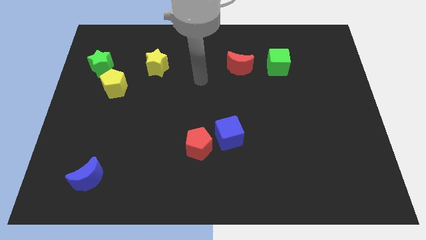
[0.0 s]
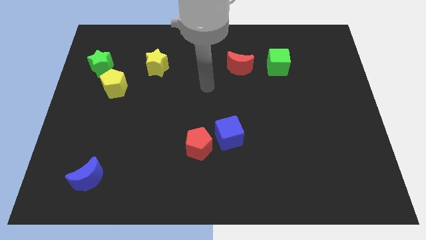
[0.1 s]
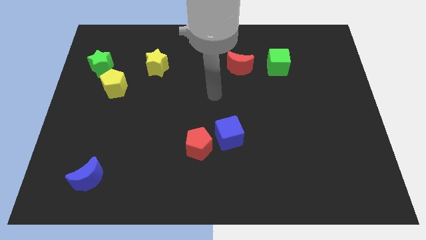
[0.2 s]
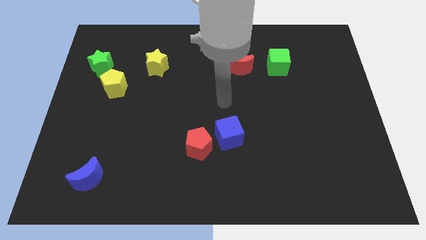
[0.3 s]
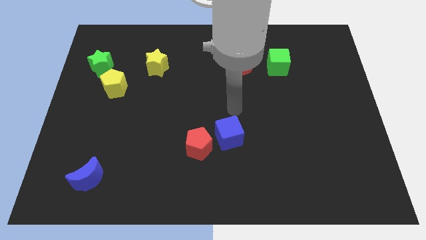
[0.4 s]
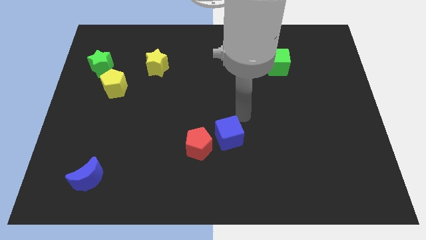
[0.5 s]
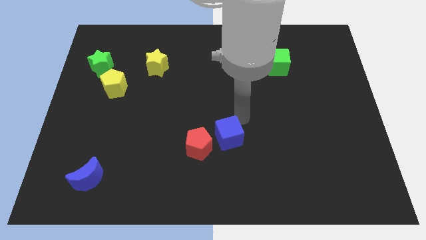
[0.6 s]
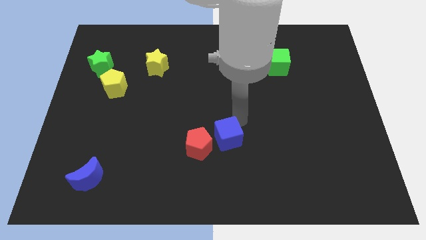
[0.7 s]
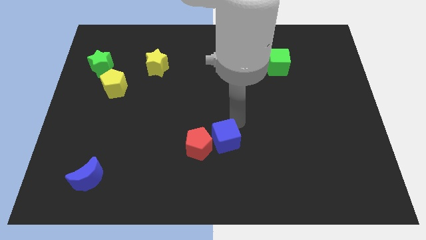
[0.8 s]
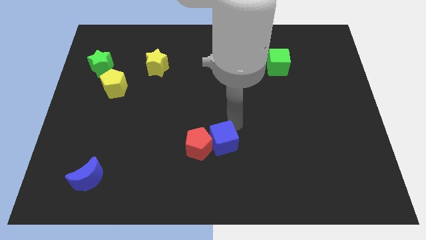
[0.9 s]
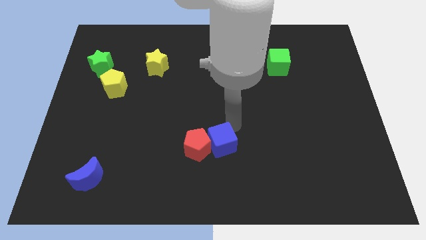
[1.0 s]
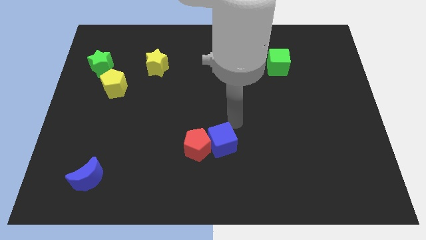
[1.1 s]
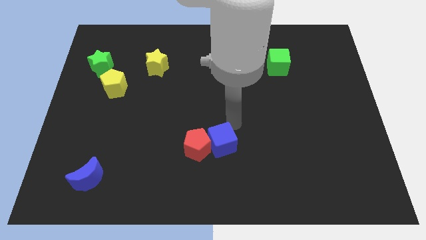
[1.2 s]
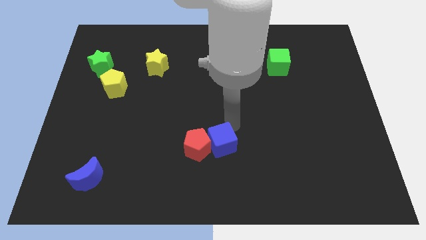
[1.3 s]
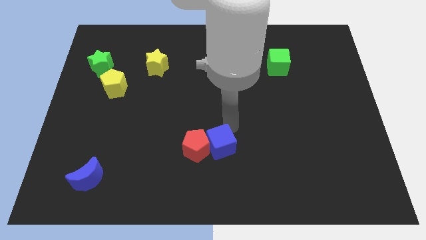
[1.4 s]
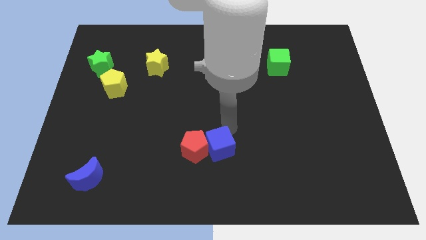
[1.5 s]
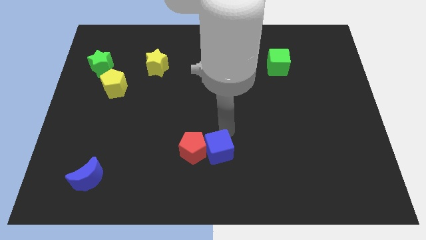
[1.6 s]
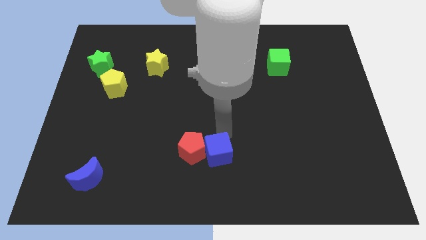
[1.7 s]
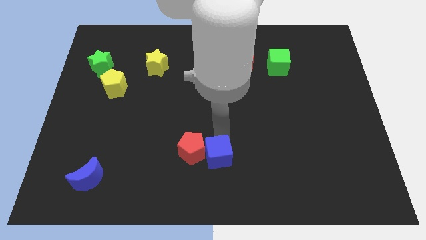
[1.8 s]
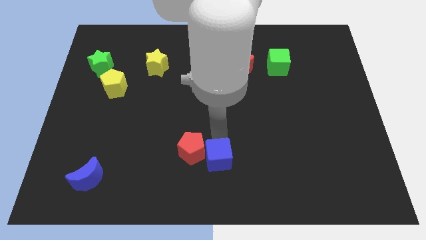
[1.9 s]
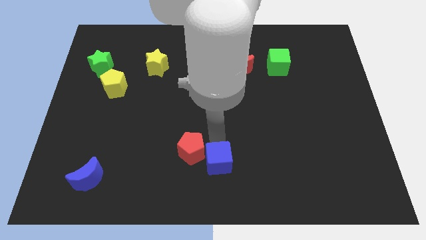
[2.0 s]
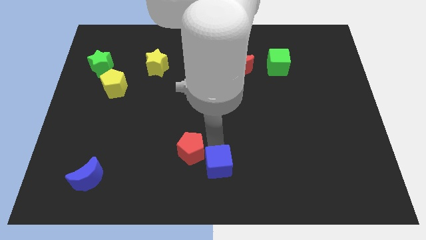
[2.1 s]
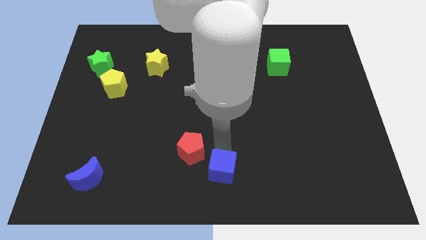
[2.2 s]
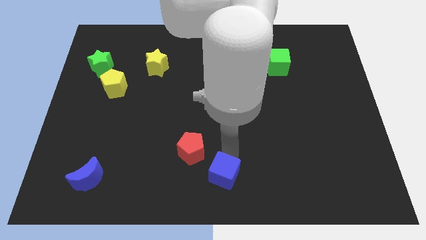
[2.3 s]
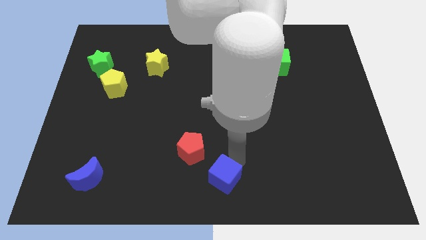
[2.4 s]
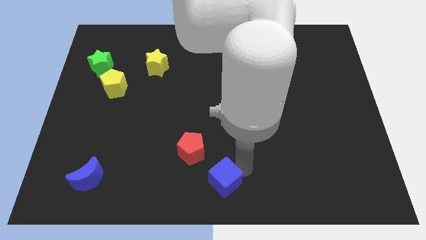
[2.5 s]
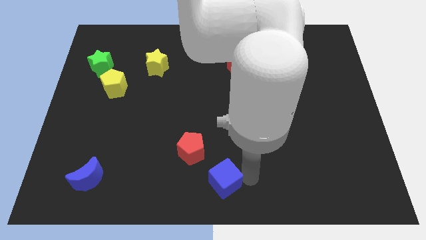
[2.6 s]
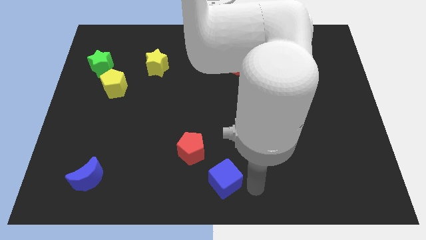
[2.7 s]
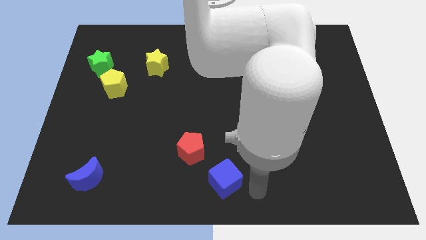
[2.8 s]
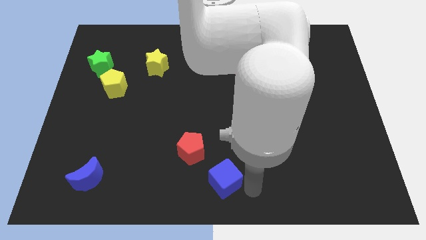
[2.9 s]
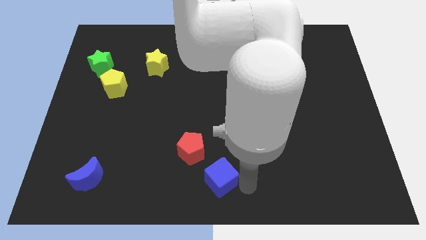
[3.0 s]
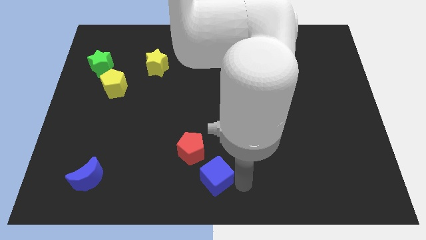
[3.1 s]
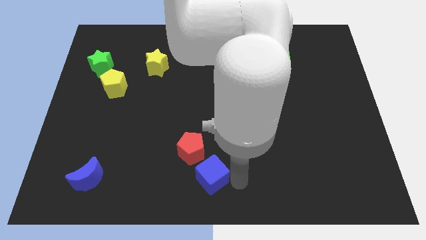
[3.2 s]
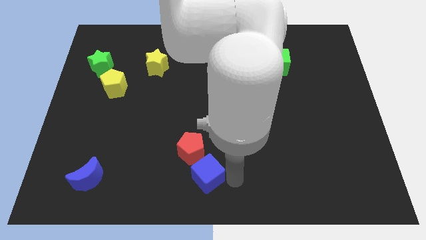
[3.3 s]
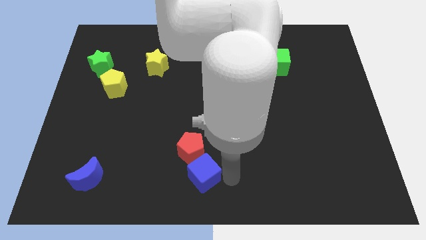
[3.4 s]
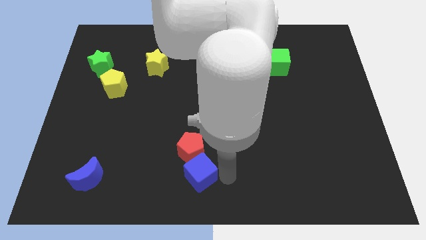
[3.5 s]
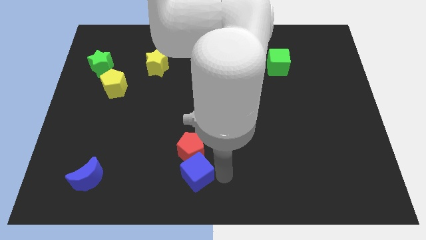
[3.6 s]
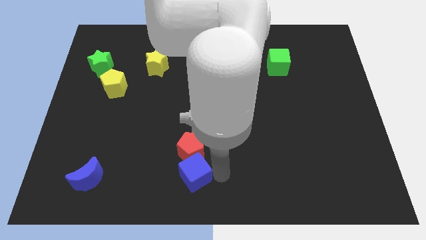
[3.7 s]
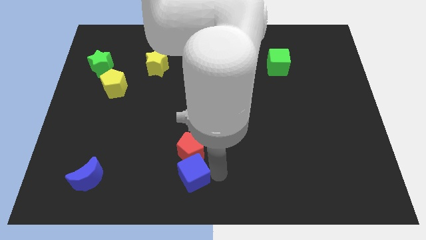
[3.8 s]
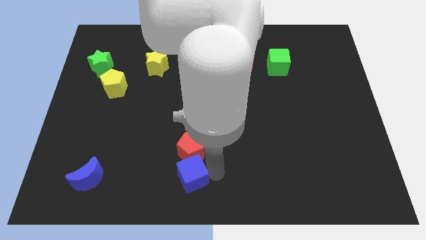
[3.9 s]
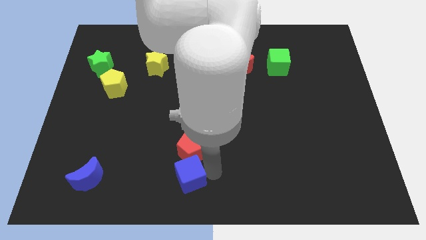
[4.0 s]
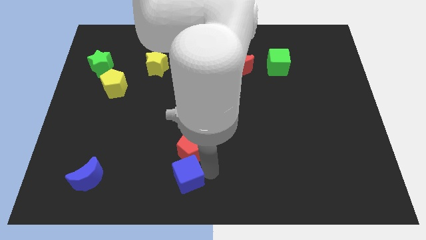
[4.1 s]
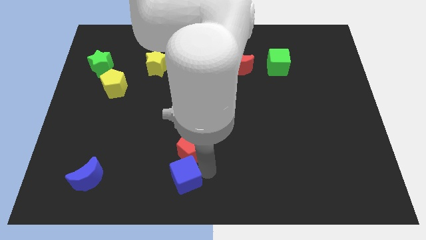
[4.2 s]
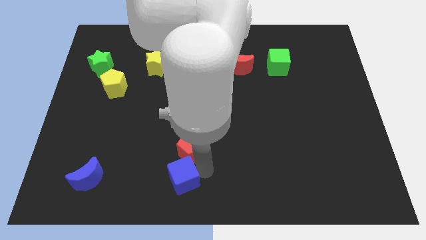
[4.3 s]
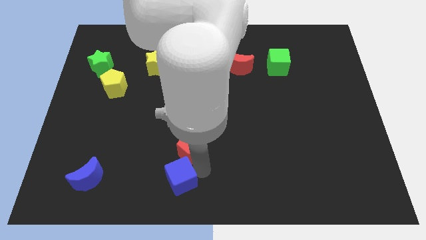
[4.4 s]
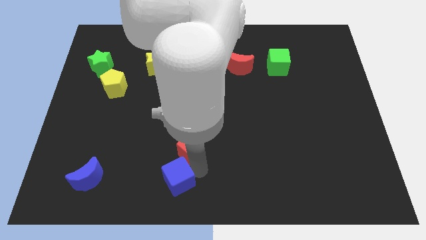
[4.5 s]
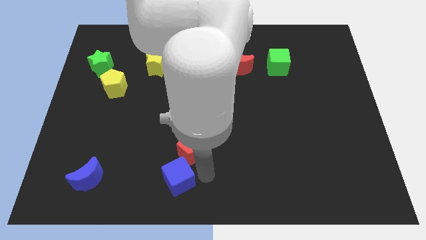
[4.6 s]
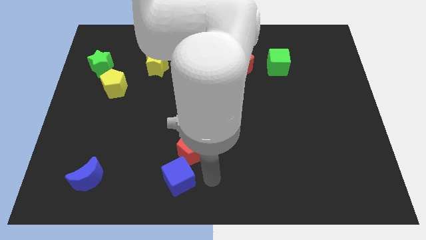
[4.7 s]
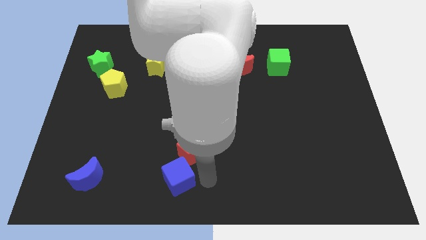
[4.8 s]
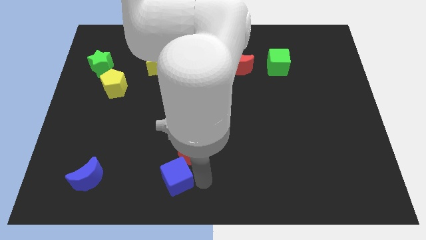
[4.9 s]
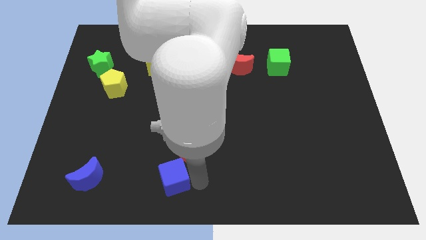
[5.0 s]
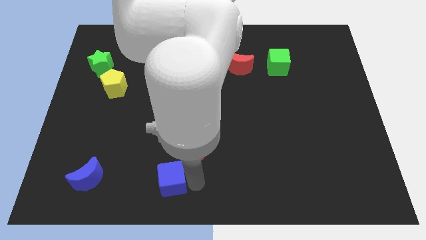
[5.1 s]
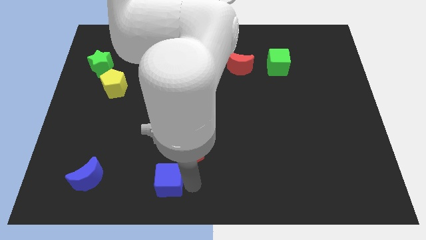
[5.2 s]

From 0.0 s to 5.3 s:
push the blue cube just right of the blue moon

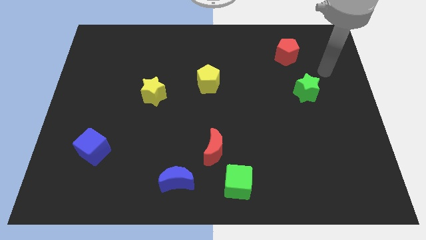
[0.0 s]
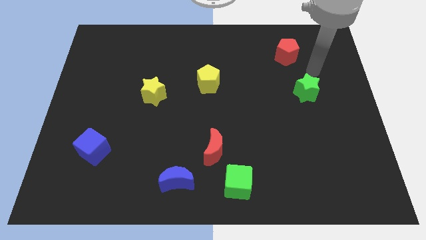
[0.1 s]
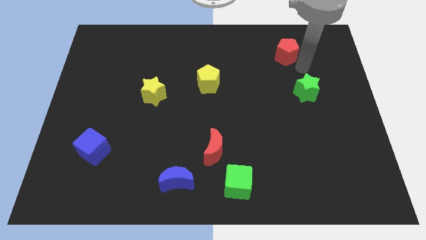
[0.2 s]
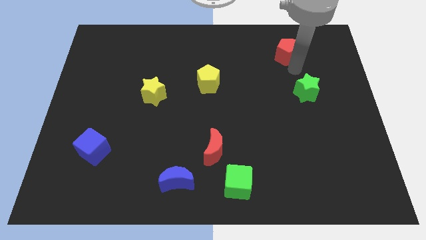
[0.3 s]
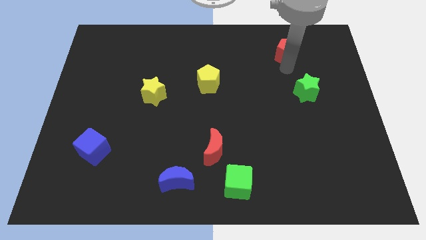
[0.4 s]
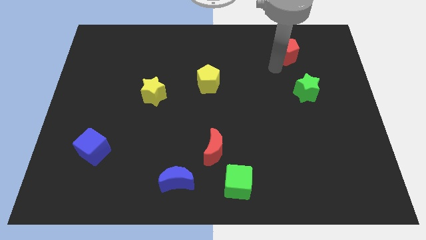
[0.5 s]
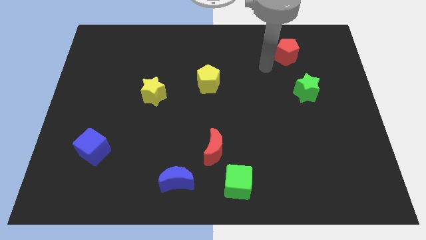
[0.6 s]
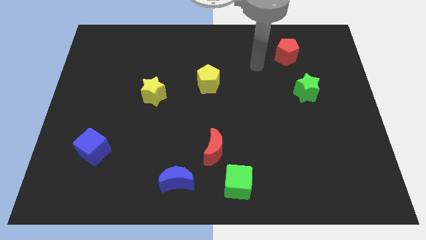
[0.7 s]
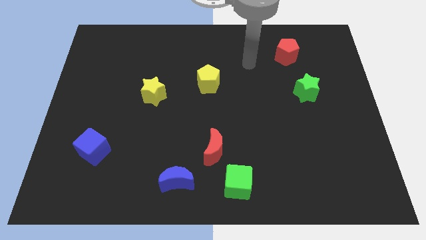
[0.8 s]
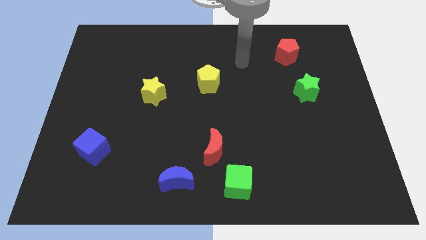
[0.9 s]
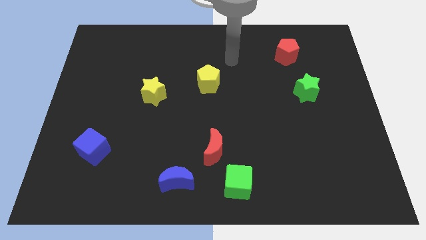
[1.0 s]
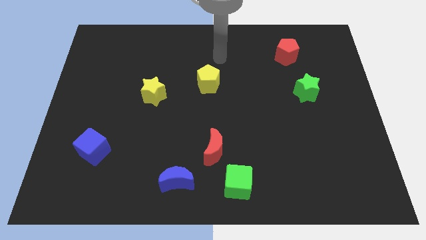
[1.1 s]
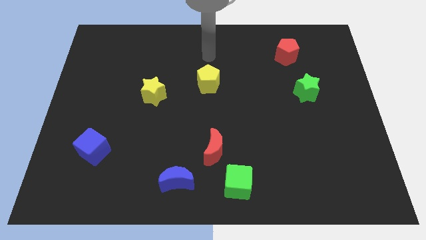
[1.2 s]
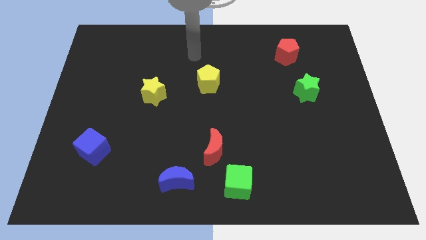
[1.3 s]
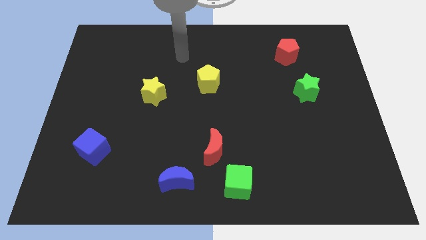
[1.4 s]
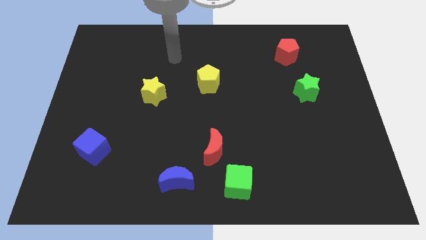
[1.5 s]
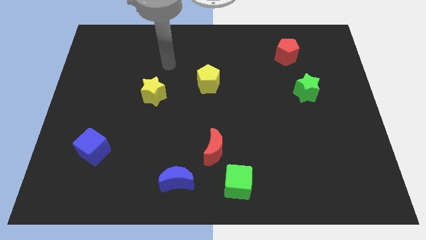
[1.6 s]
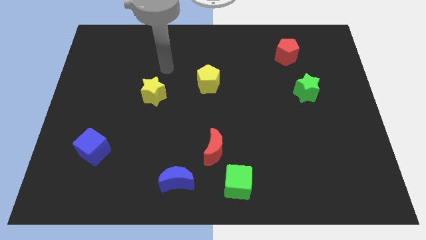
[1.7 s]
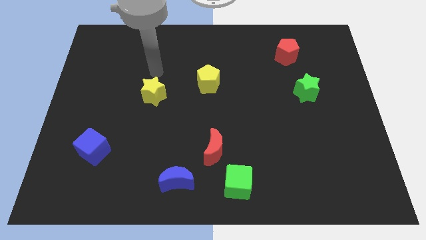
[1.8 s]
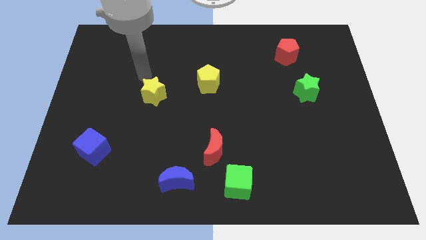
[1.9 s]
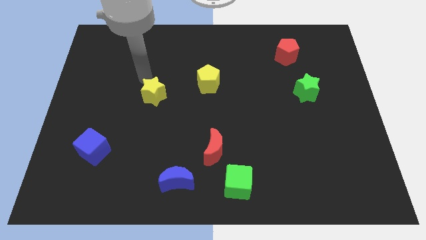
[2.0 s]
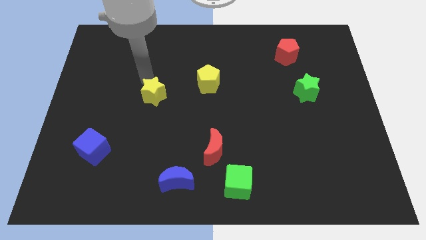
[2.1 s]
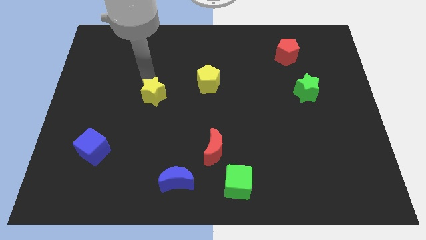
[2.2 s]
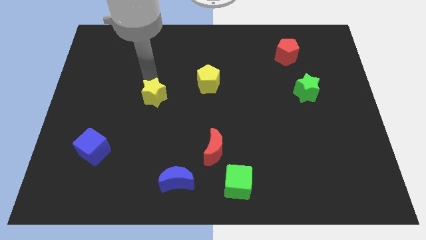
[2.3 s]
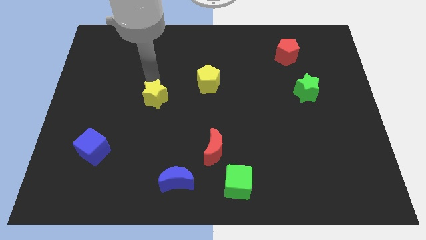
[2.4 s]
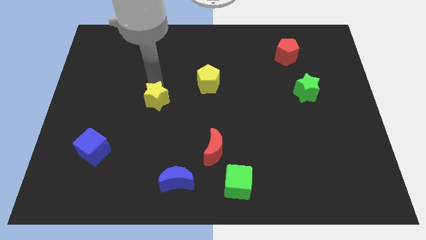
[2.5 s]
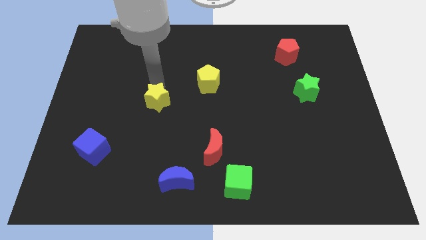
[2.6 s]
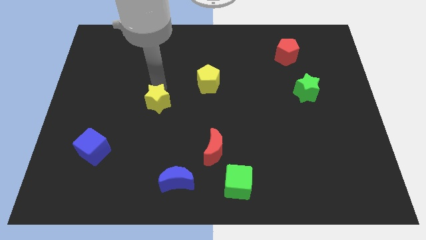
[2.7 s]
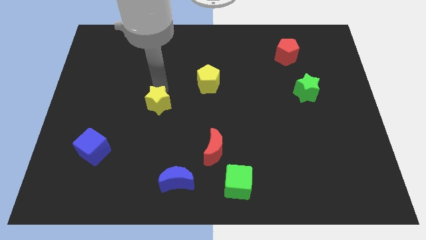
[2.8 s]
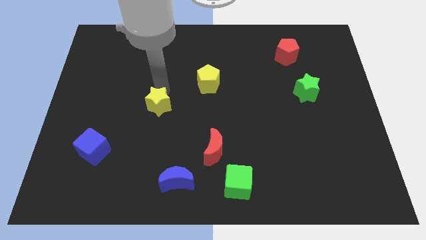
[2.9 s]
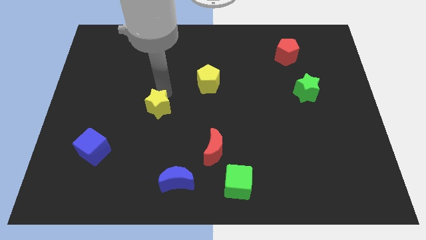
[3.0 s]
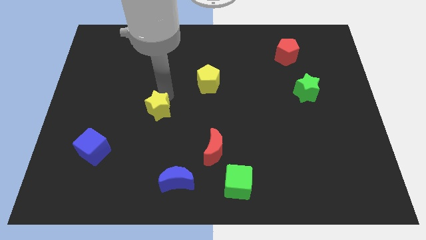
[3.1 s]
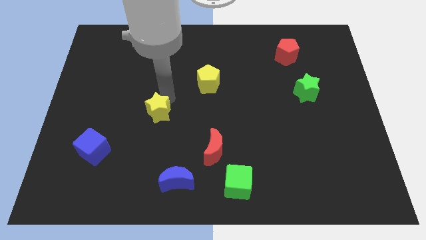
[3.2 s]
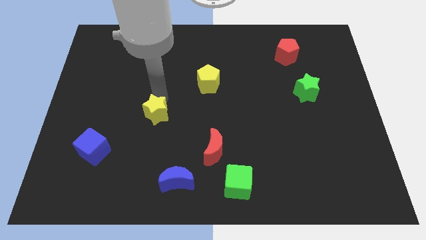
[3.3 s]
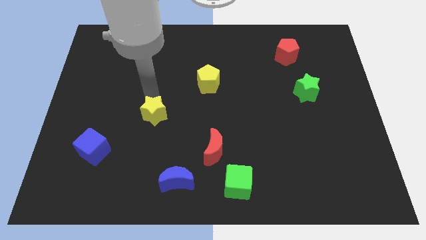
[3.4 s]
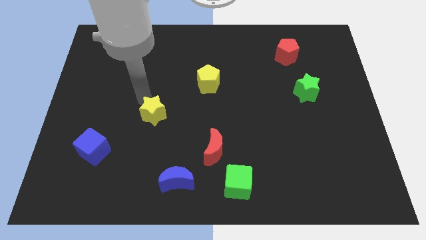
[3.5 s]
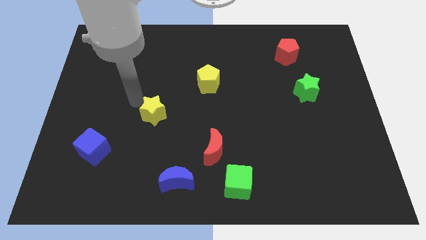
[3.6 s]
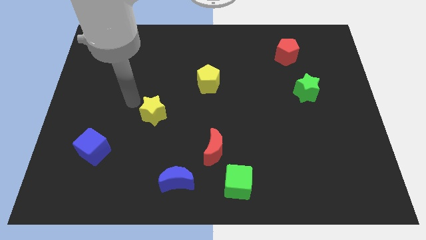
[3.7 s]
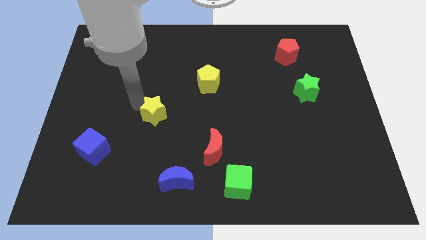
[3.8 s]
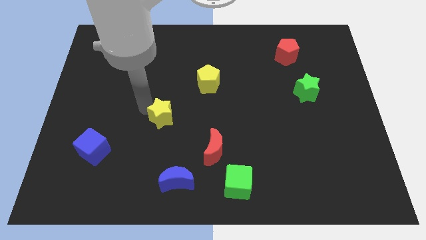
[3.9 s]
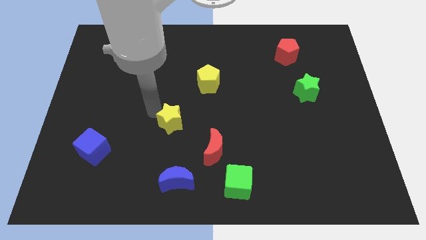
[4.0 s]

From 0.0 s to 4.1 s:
push the yellow star to the top left of the red moon
